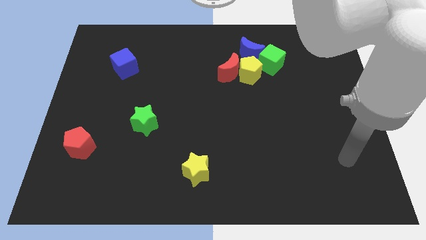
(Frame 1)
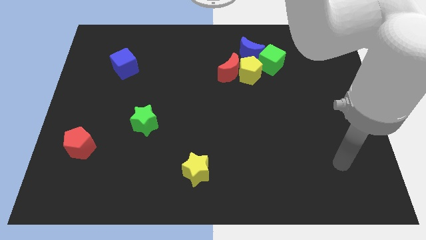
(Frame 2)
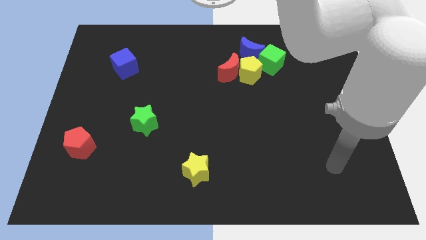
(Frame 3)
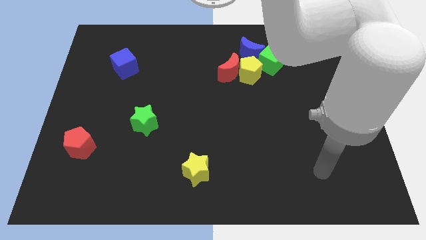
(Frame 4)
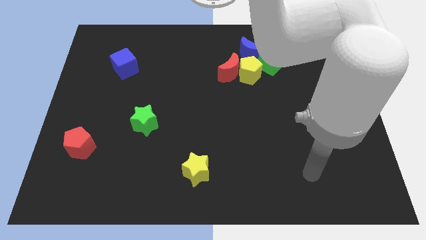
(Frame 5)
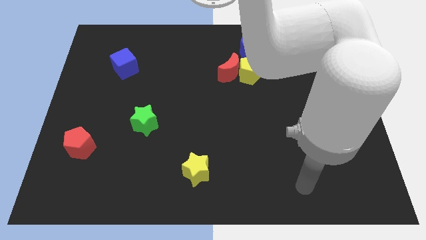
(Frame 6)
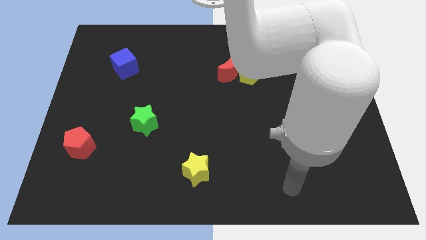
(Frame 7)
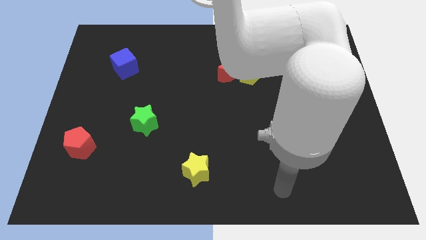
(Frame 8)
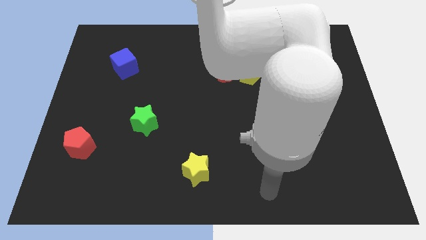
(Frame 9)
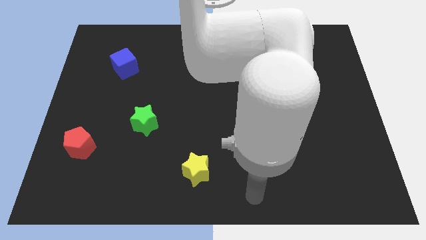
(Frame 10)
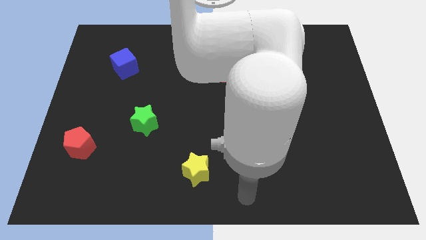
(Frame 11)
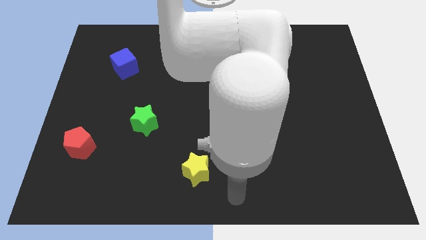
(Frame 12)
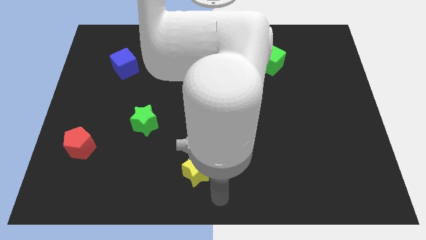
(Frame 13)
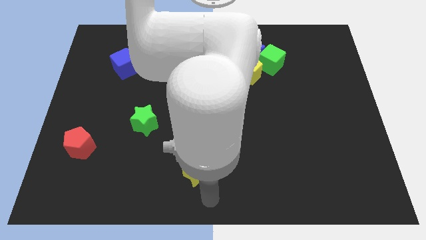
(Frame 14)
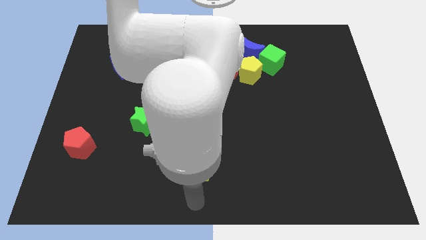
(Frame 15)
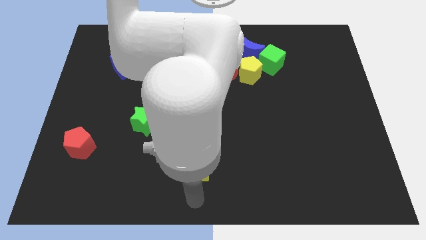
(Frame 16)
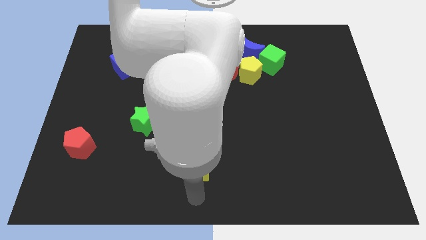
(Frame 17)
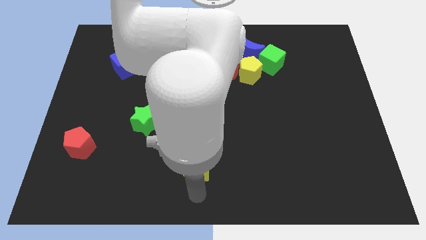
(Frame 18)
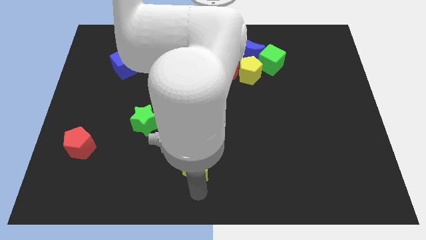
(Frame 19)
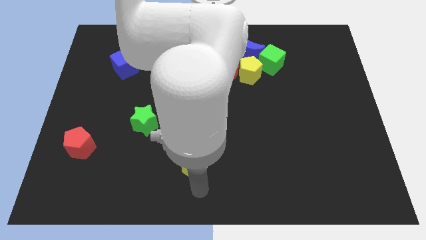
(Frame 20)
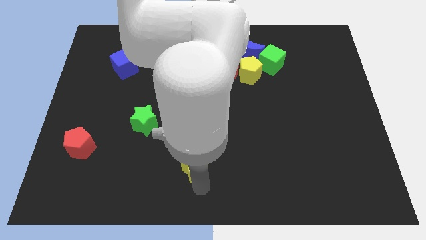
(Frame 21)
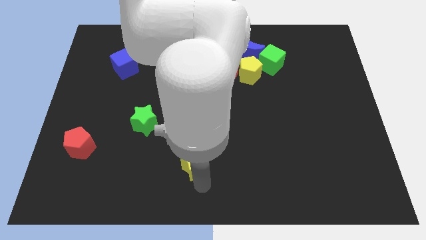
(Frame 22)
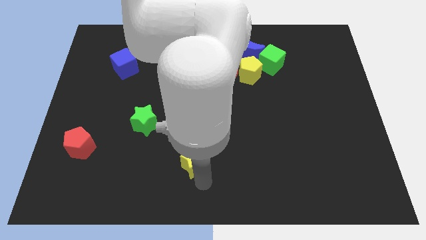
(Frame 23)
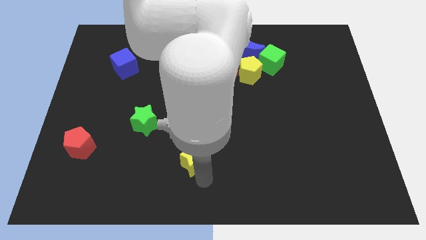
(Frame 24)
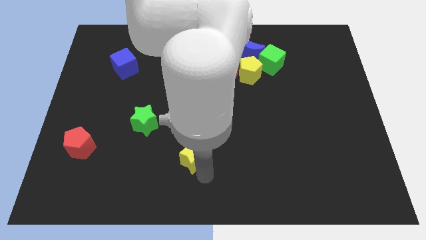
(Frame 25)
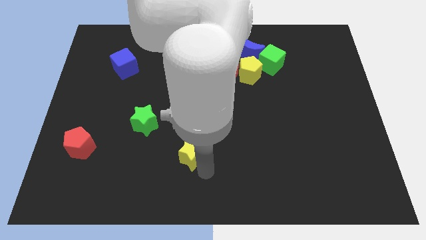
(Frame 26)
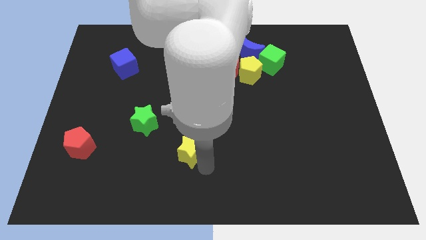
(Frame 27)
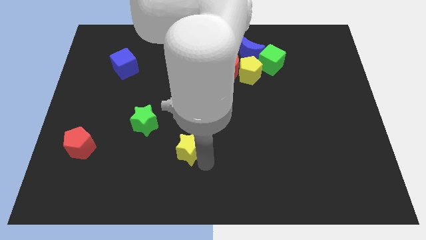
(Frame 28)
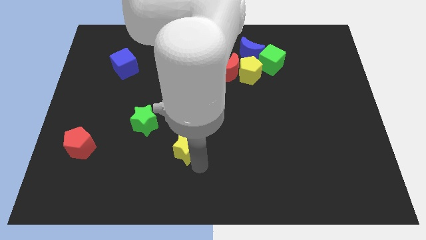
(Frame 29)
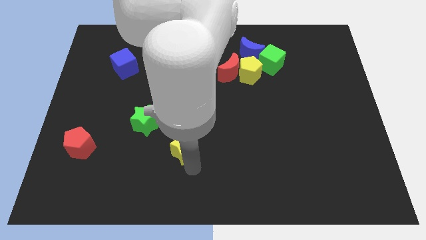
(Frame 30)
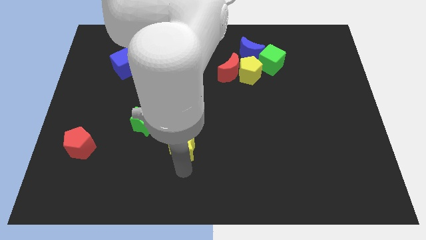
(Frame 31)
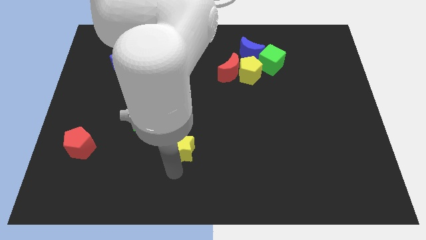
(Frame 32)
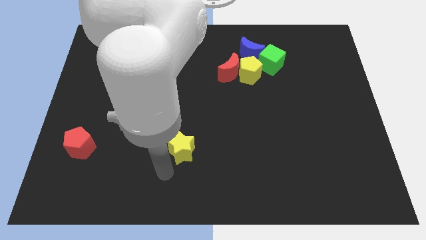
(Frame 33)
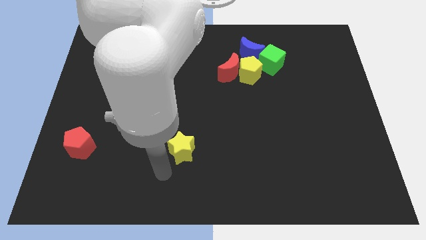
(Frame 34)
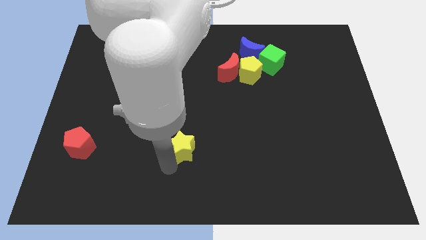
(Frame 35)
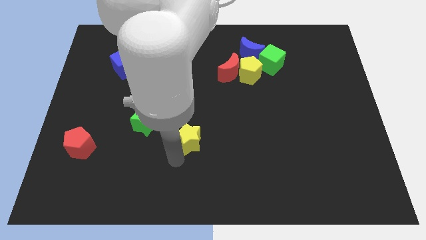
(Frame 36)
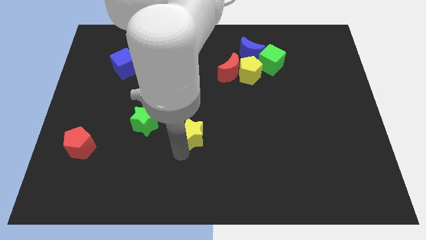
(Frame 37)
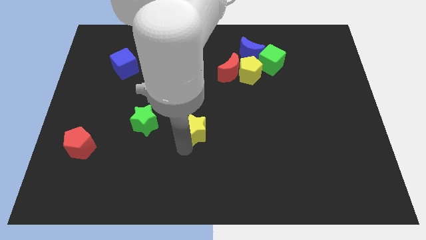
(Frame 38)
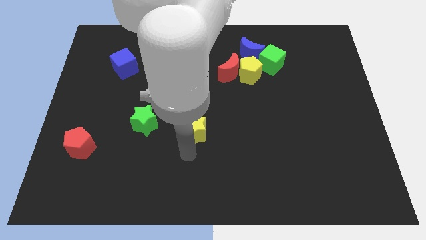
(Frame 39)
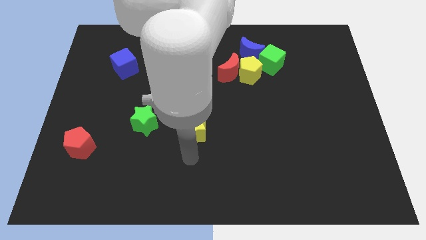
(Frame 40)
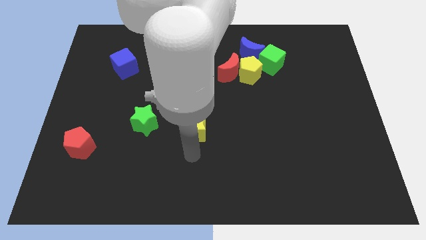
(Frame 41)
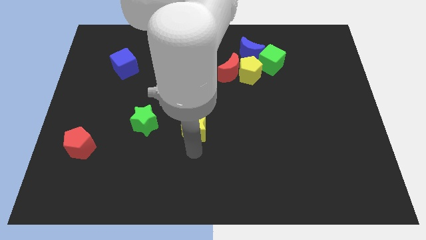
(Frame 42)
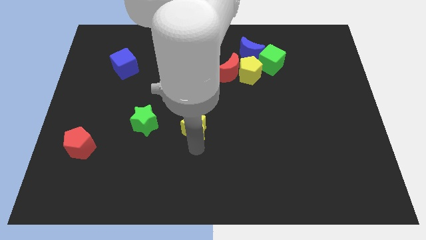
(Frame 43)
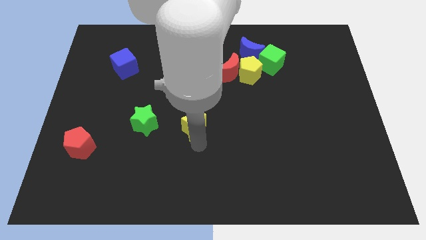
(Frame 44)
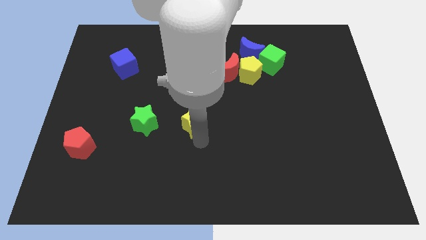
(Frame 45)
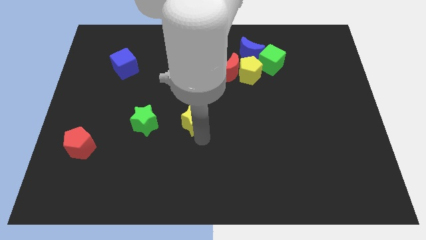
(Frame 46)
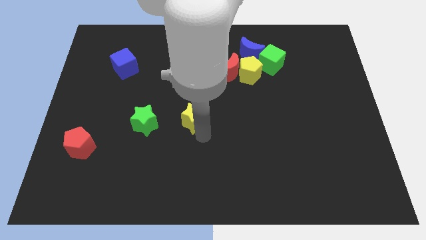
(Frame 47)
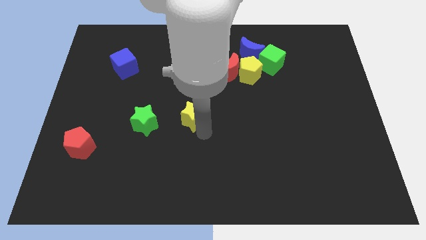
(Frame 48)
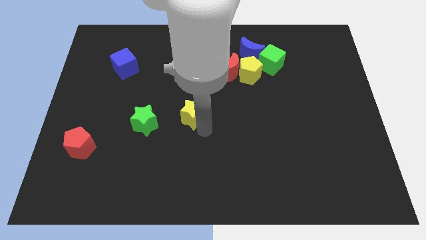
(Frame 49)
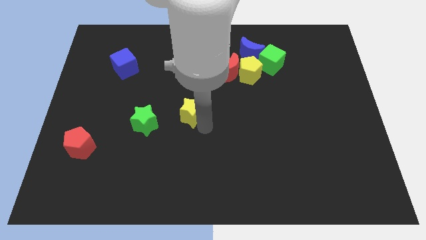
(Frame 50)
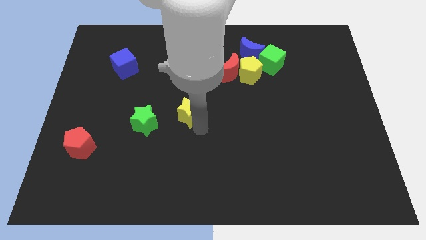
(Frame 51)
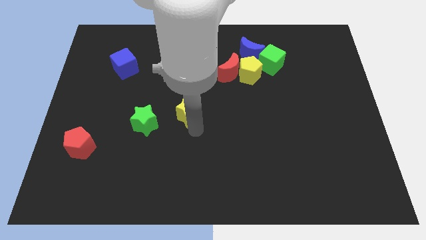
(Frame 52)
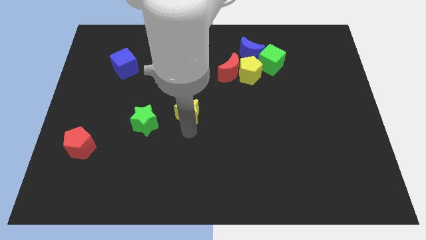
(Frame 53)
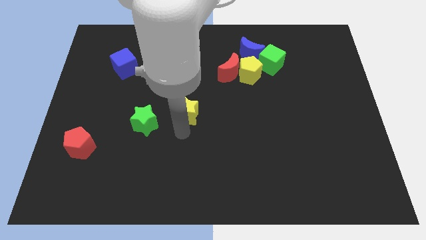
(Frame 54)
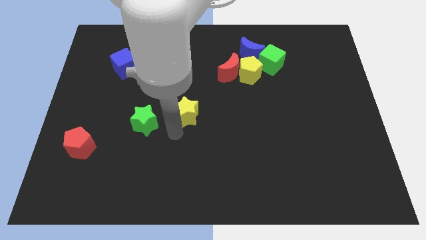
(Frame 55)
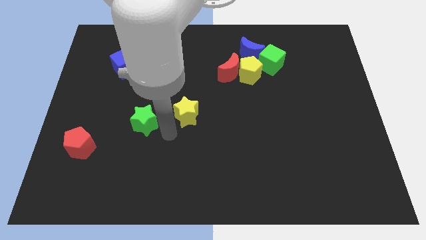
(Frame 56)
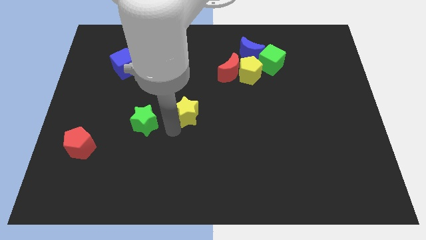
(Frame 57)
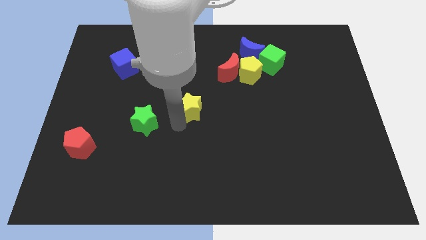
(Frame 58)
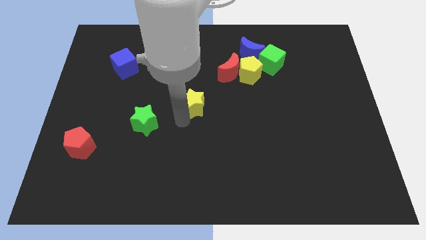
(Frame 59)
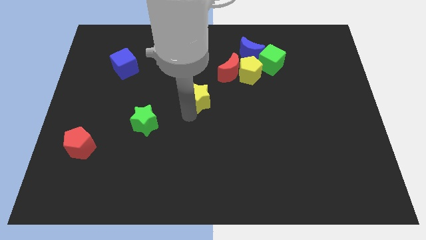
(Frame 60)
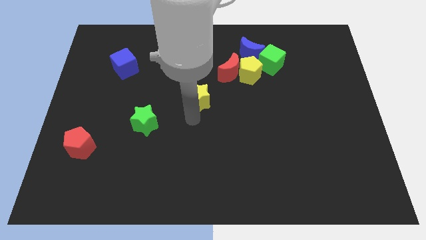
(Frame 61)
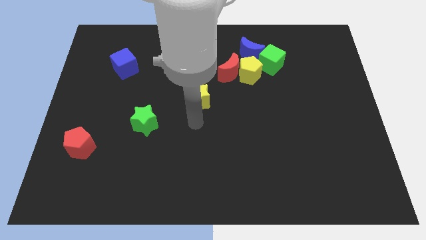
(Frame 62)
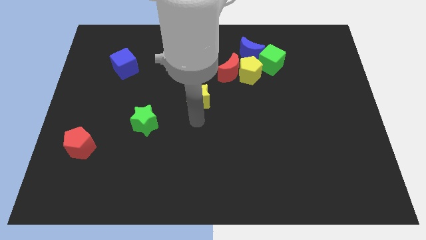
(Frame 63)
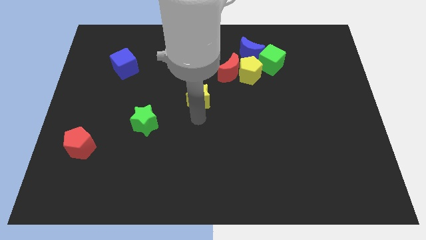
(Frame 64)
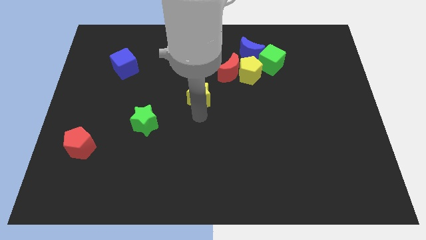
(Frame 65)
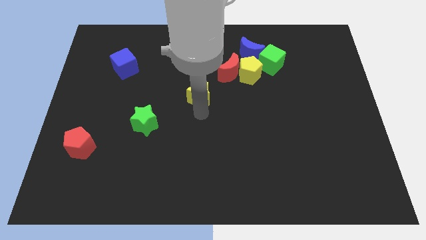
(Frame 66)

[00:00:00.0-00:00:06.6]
slide the yellow star up

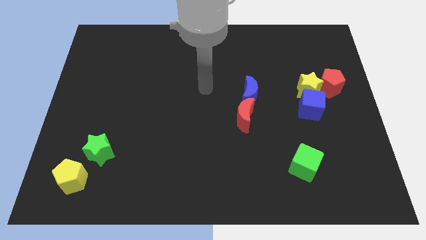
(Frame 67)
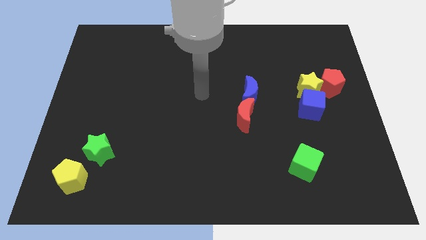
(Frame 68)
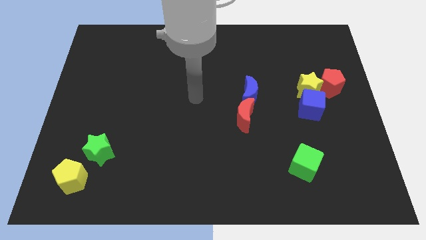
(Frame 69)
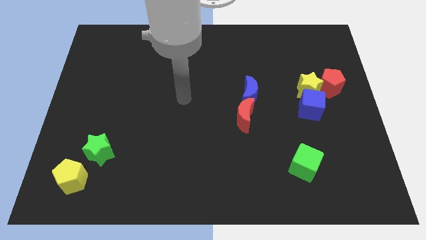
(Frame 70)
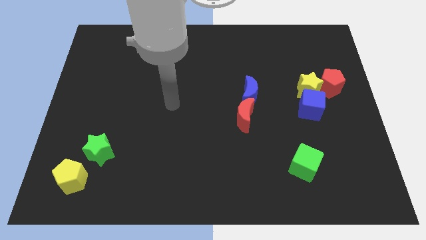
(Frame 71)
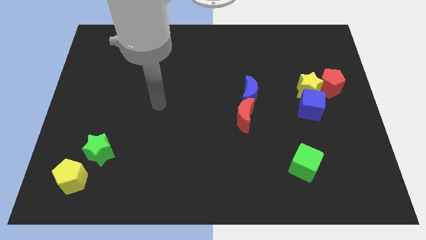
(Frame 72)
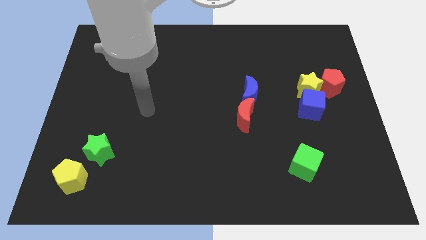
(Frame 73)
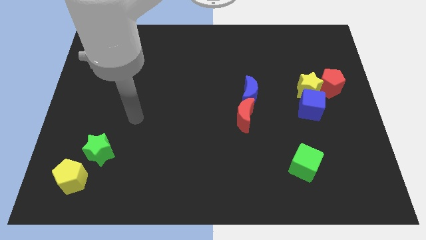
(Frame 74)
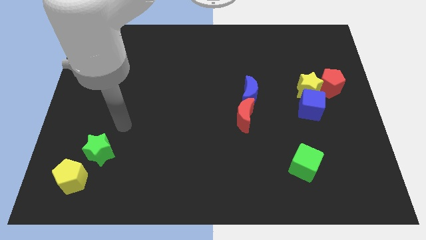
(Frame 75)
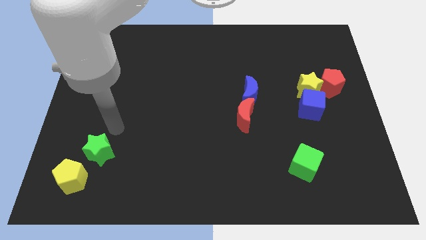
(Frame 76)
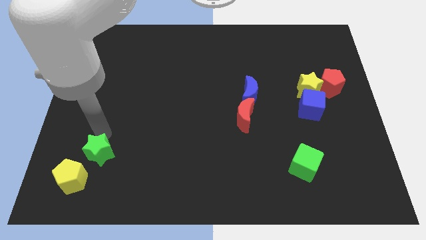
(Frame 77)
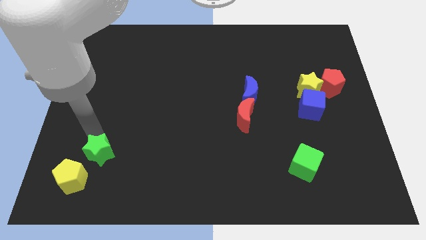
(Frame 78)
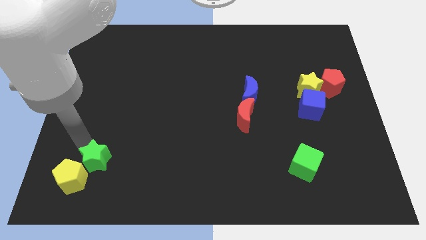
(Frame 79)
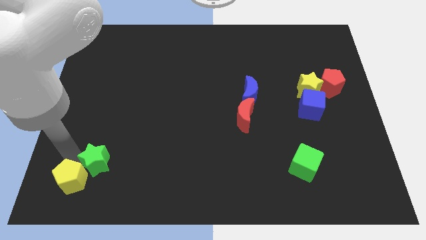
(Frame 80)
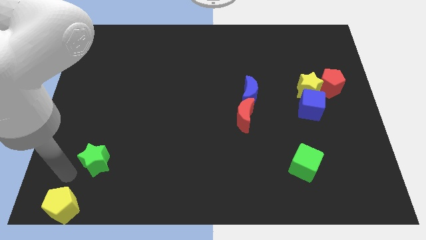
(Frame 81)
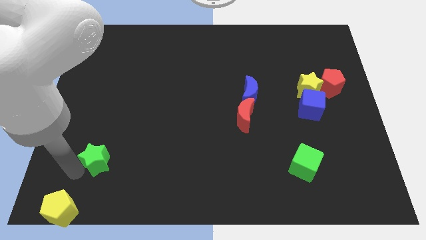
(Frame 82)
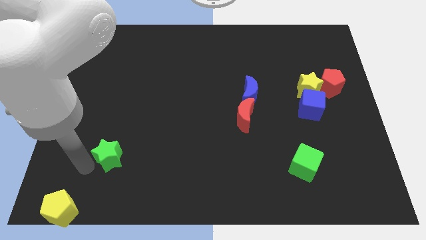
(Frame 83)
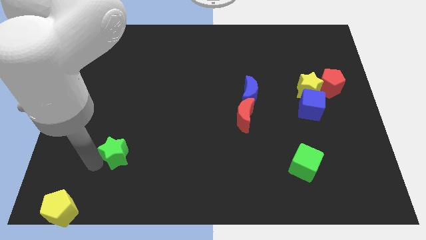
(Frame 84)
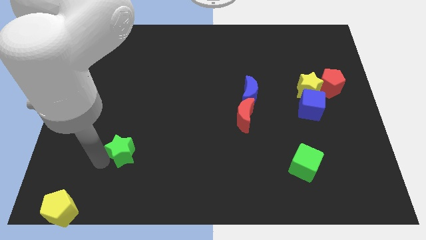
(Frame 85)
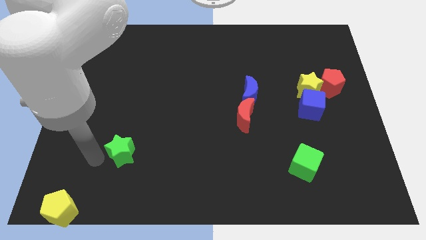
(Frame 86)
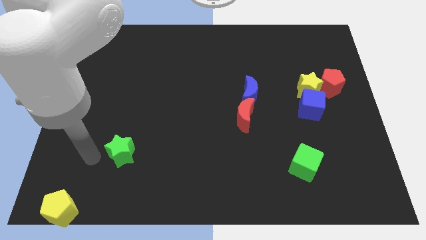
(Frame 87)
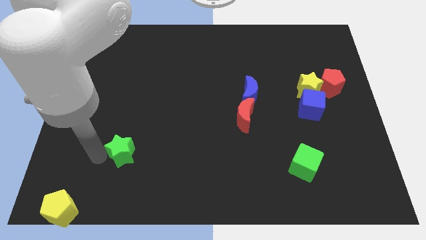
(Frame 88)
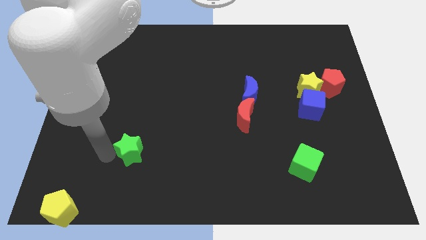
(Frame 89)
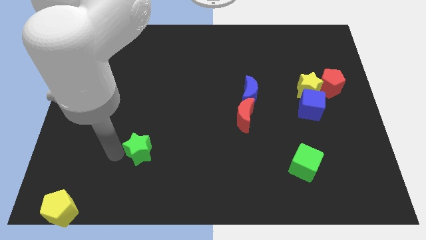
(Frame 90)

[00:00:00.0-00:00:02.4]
slightly move the green star right
